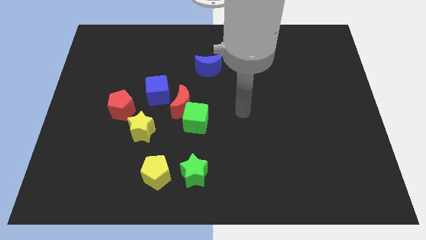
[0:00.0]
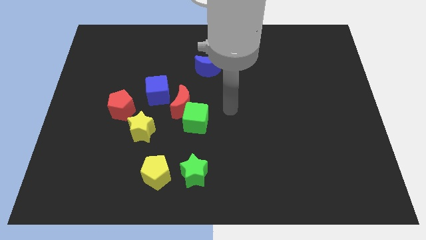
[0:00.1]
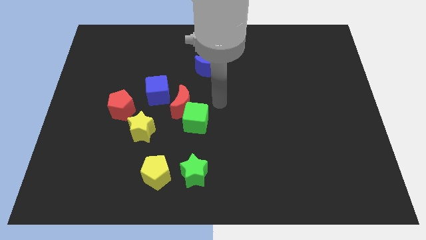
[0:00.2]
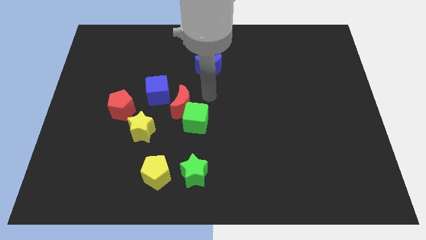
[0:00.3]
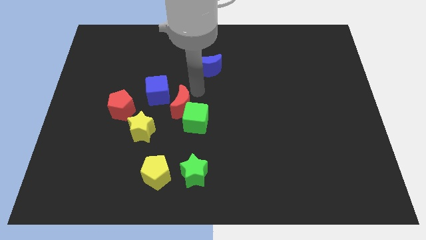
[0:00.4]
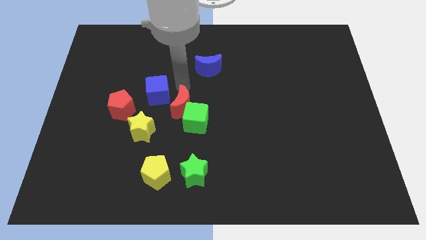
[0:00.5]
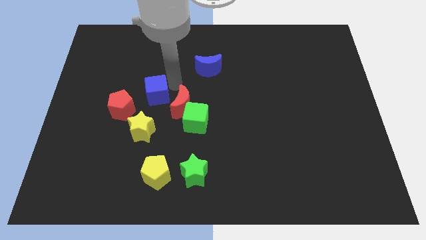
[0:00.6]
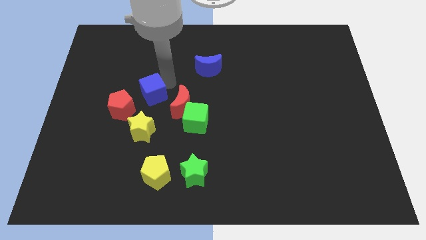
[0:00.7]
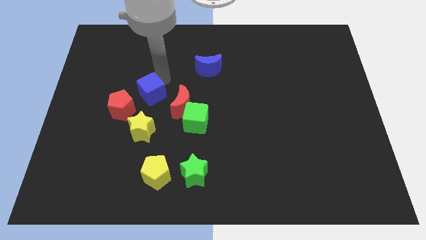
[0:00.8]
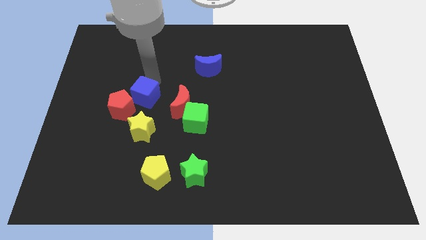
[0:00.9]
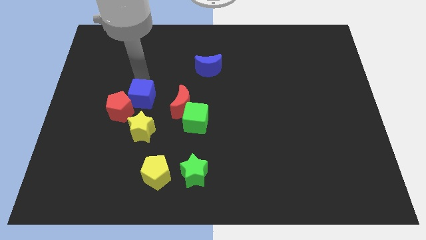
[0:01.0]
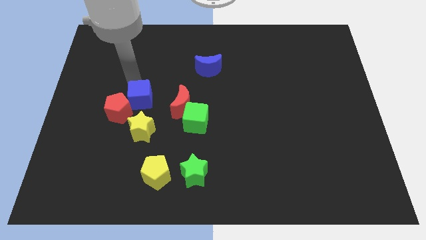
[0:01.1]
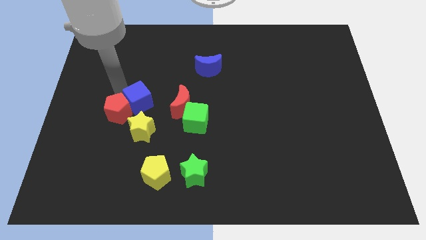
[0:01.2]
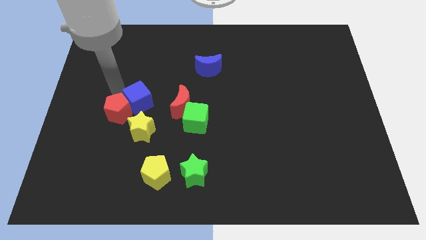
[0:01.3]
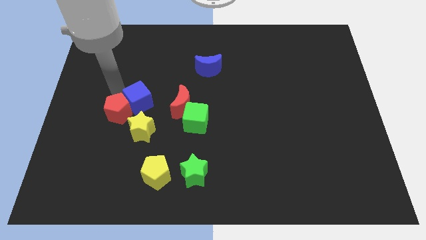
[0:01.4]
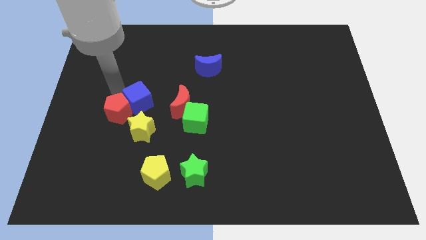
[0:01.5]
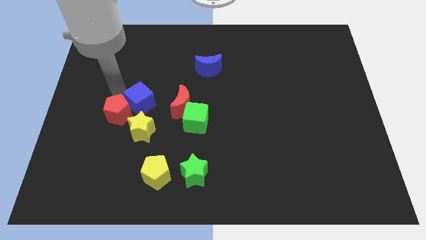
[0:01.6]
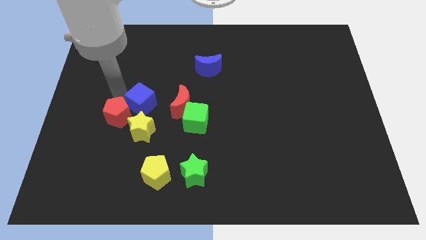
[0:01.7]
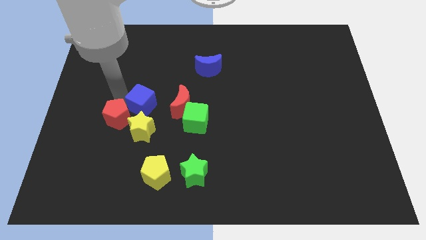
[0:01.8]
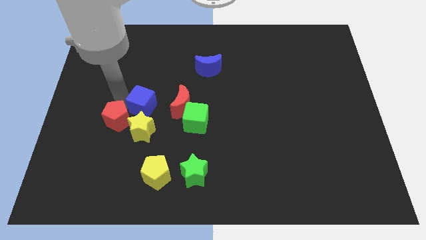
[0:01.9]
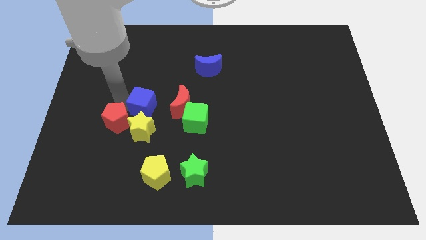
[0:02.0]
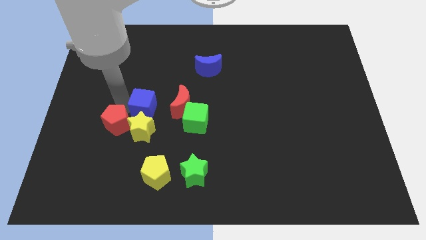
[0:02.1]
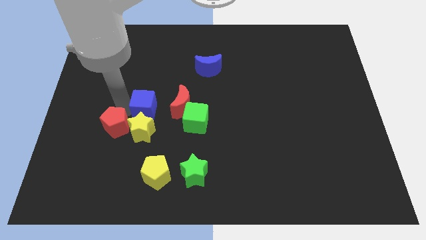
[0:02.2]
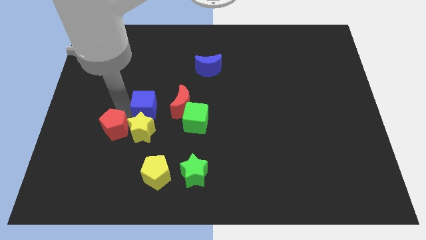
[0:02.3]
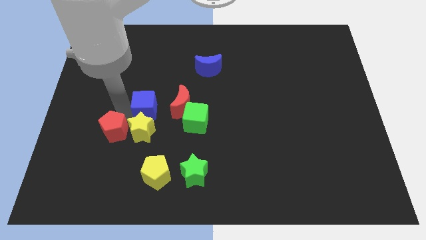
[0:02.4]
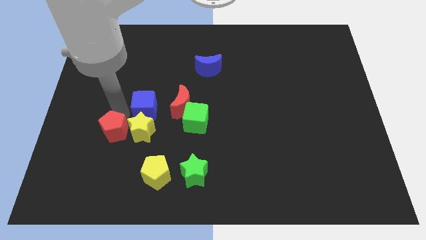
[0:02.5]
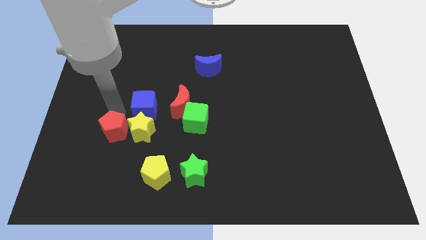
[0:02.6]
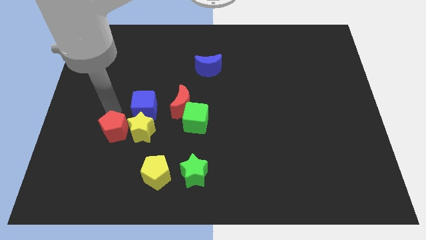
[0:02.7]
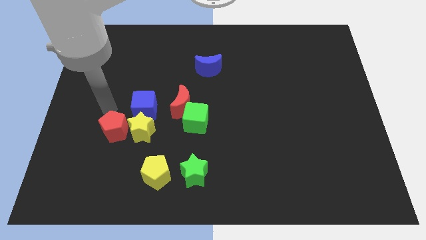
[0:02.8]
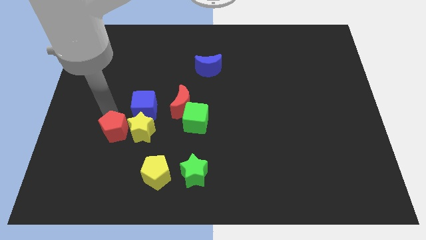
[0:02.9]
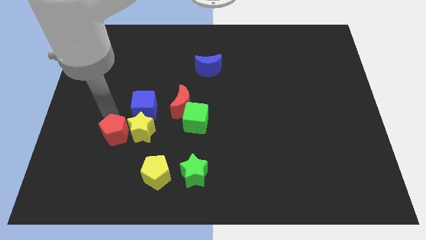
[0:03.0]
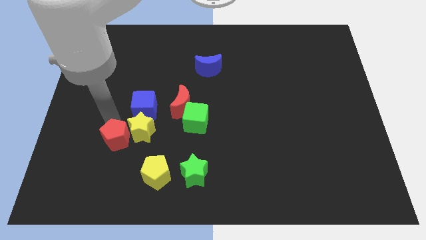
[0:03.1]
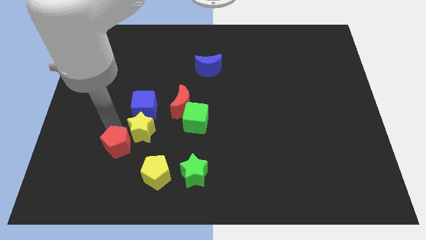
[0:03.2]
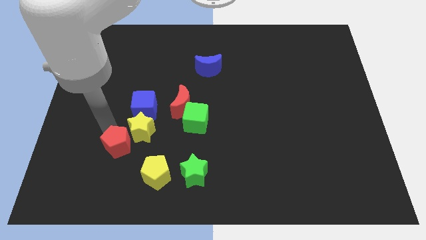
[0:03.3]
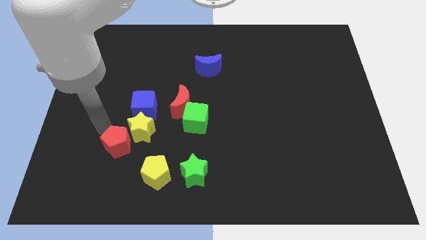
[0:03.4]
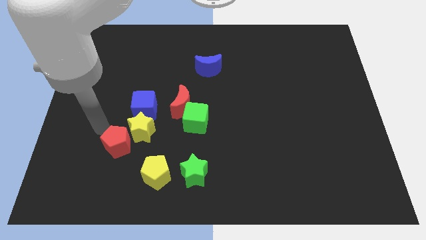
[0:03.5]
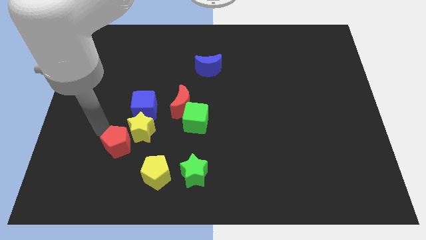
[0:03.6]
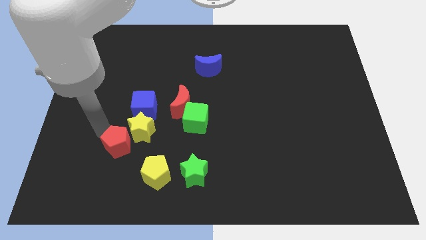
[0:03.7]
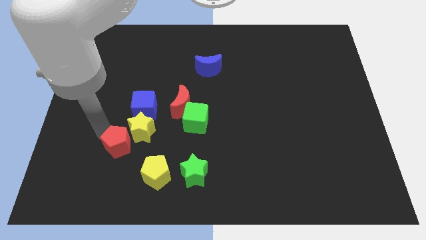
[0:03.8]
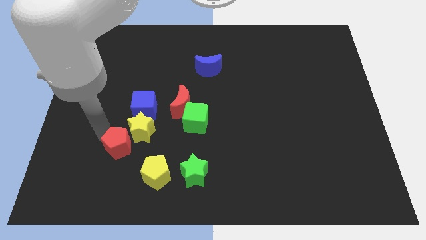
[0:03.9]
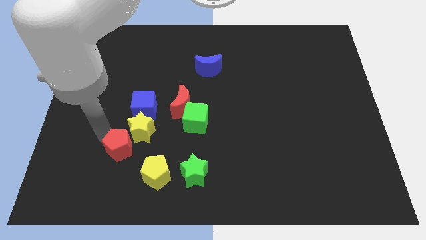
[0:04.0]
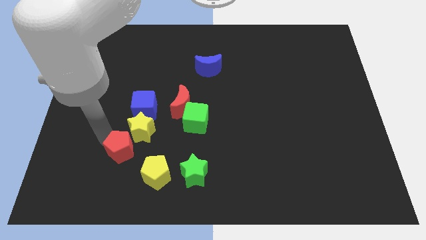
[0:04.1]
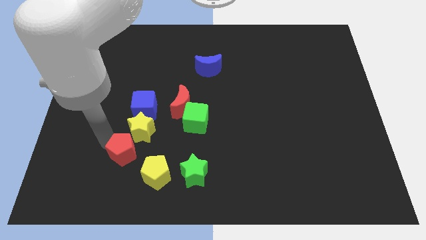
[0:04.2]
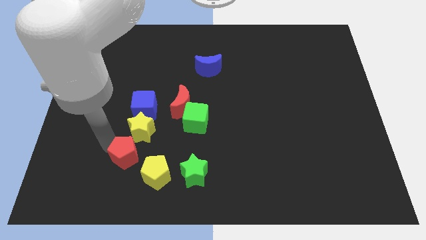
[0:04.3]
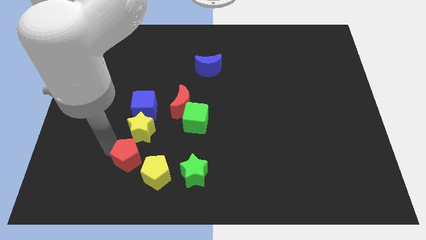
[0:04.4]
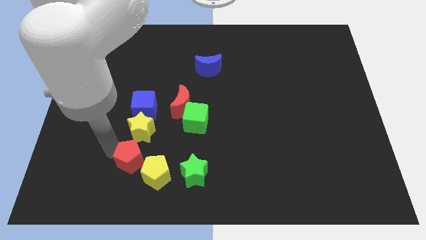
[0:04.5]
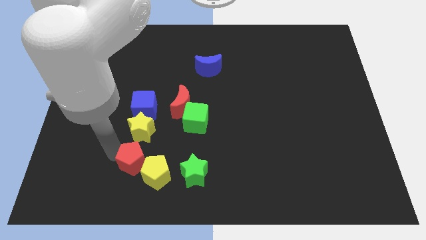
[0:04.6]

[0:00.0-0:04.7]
move the red pentagon next to the yellow pentagon

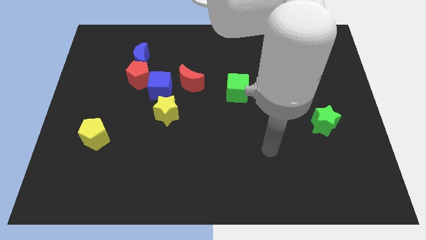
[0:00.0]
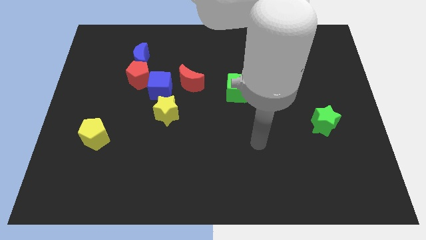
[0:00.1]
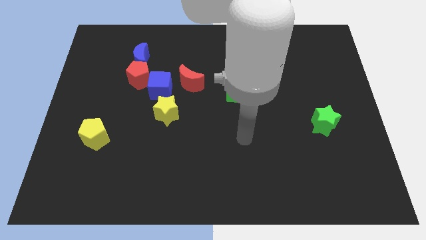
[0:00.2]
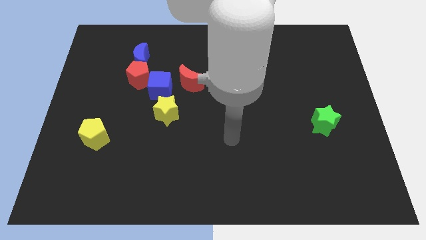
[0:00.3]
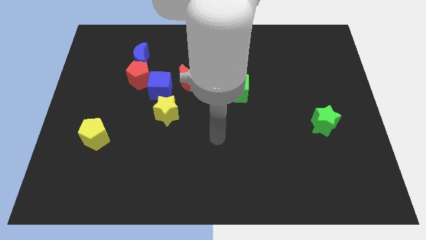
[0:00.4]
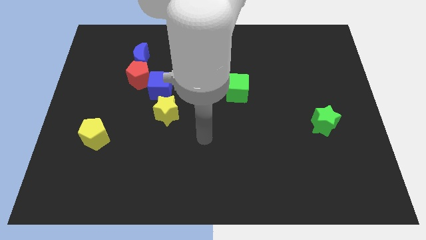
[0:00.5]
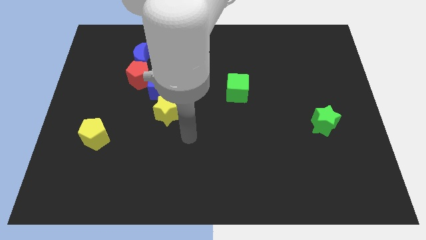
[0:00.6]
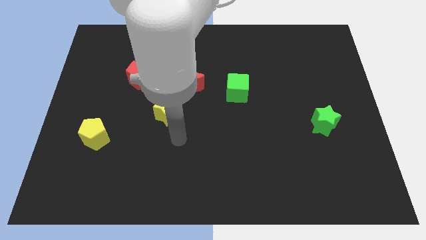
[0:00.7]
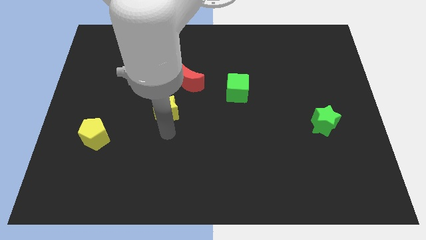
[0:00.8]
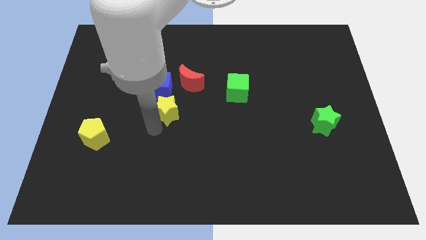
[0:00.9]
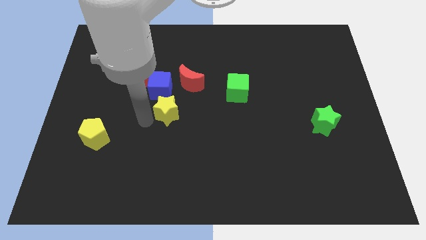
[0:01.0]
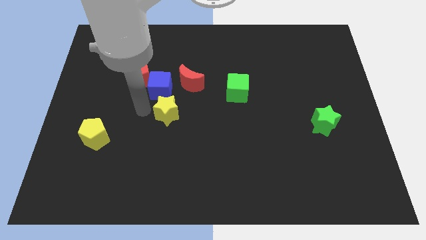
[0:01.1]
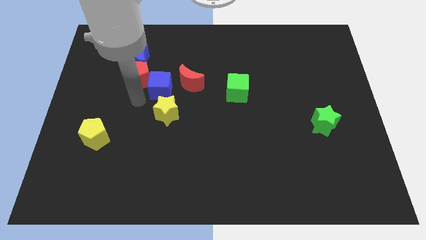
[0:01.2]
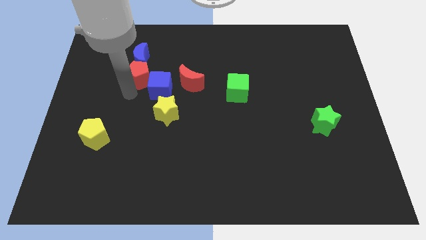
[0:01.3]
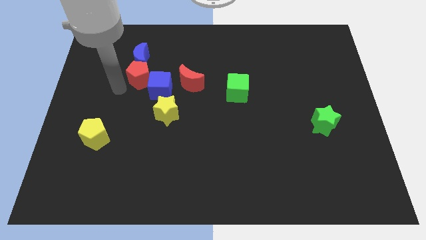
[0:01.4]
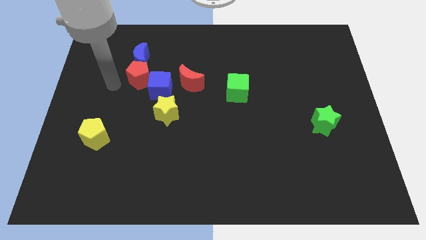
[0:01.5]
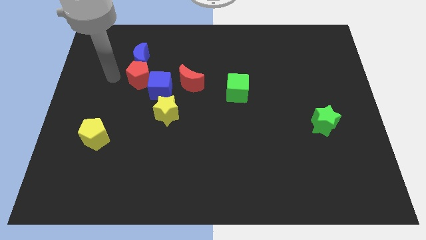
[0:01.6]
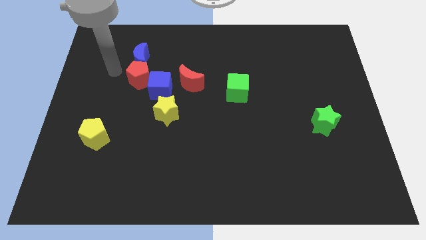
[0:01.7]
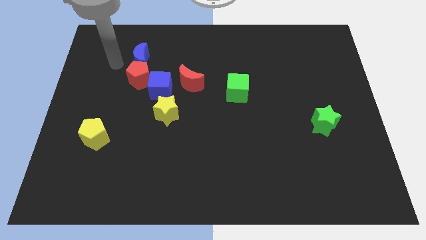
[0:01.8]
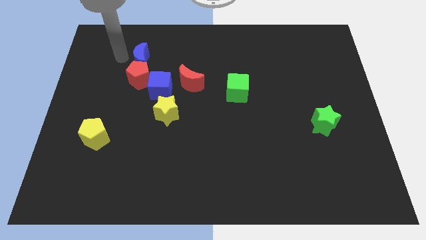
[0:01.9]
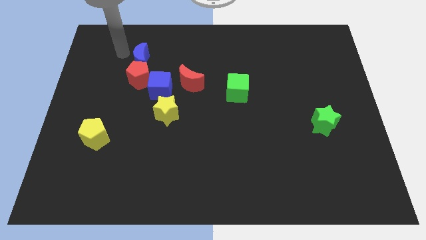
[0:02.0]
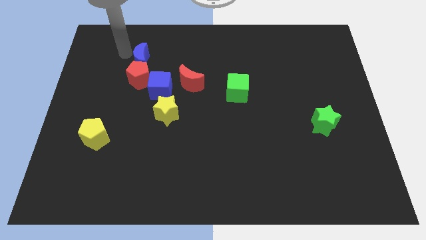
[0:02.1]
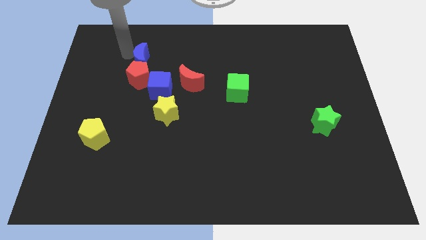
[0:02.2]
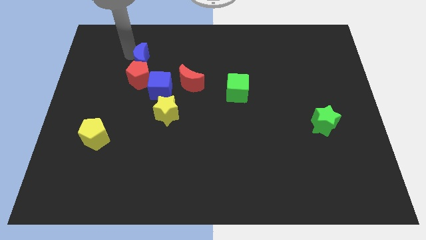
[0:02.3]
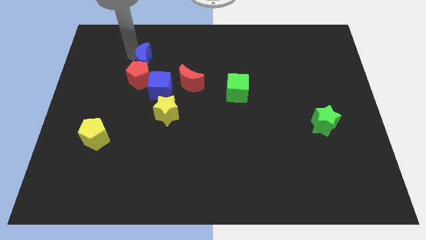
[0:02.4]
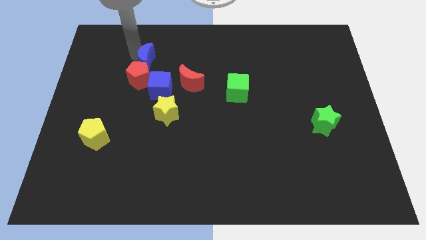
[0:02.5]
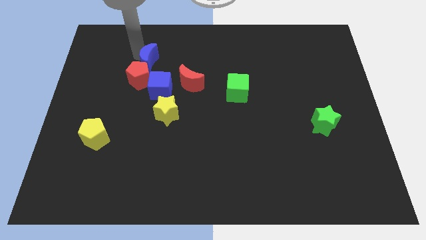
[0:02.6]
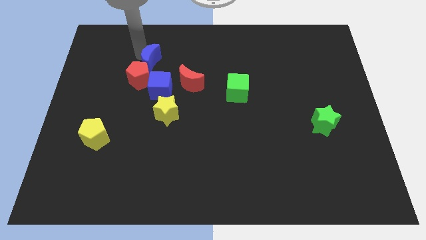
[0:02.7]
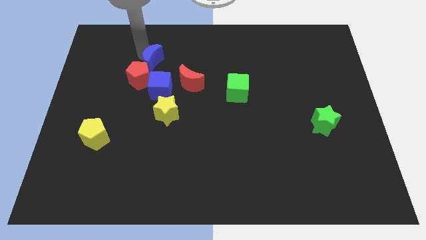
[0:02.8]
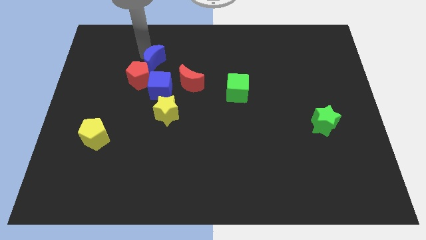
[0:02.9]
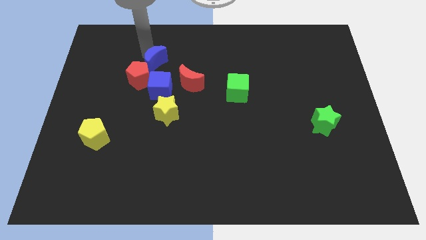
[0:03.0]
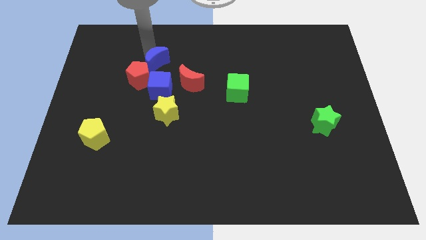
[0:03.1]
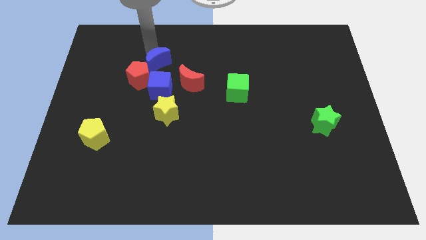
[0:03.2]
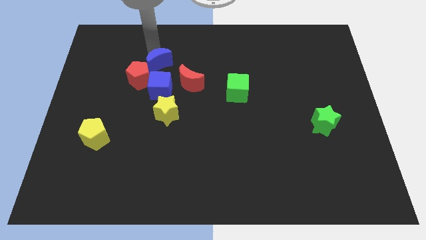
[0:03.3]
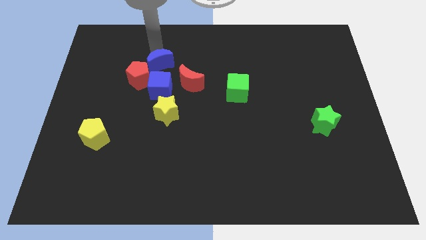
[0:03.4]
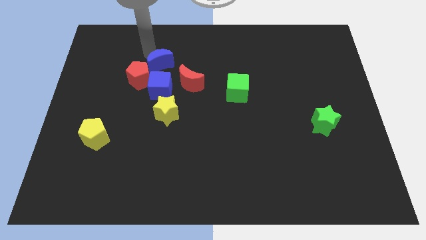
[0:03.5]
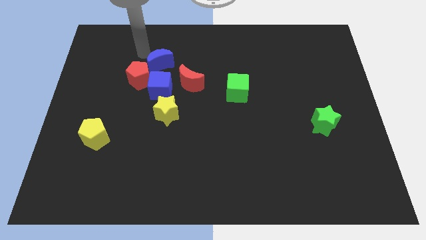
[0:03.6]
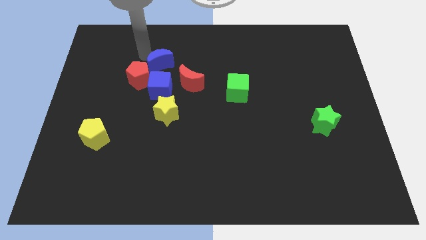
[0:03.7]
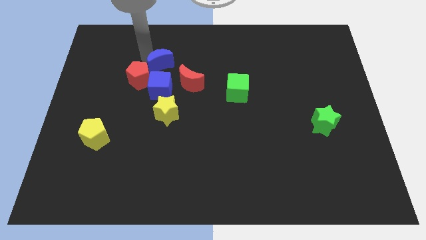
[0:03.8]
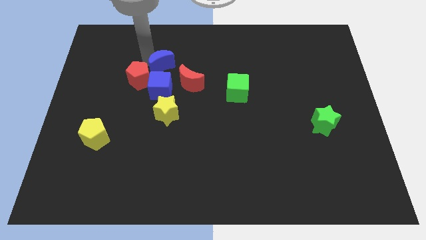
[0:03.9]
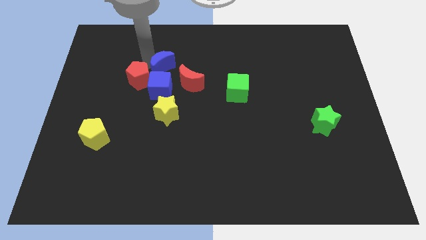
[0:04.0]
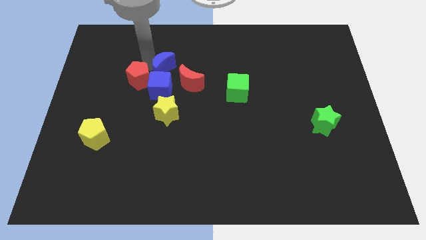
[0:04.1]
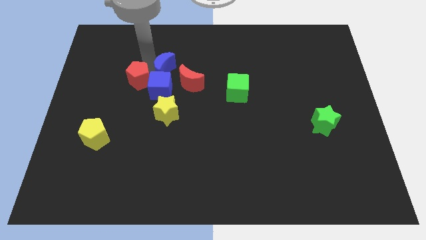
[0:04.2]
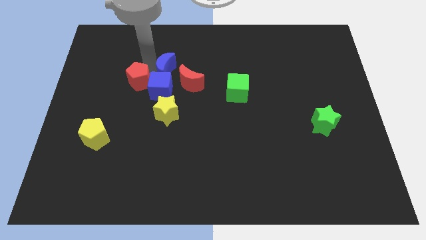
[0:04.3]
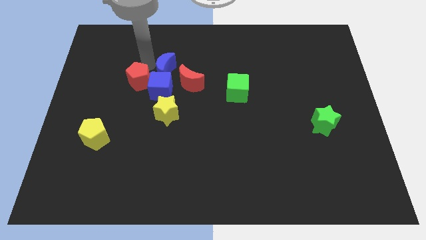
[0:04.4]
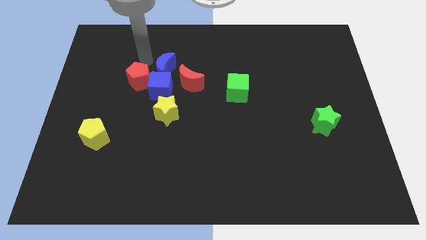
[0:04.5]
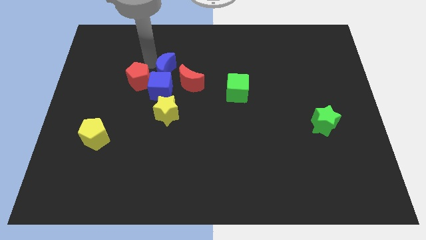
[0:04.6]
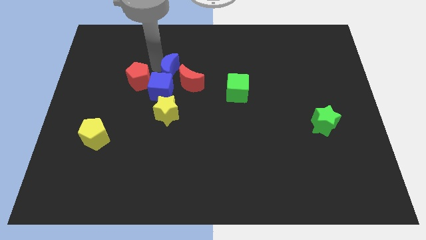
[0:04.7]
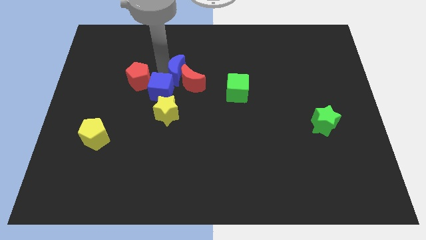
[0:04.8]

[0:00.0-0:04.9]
move the blue moon close to the red moon
